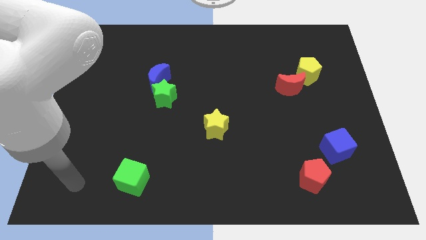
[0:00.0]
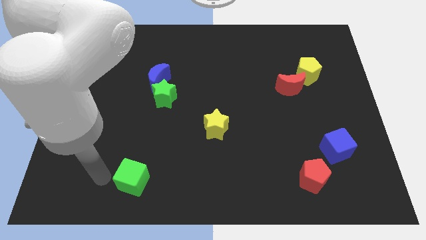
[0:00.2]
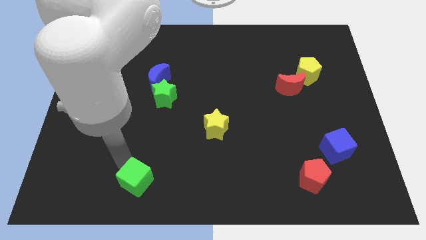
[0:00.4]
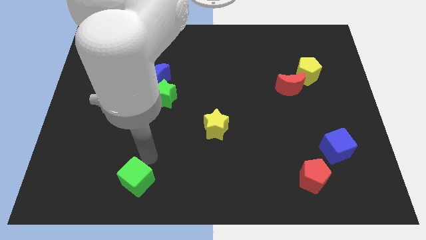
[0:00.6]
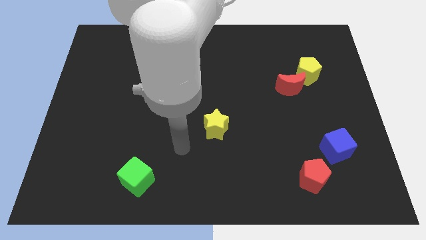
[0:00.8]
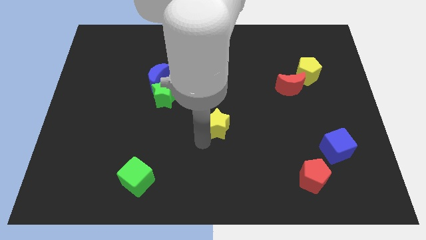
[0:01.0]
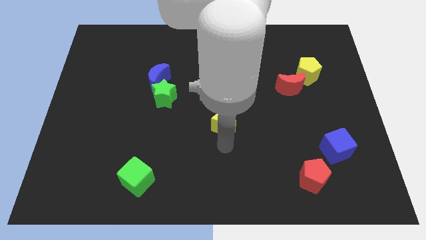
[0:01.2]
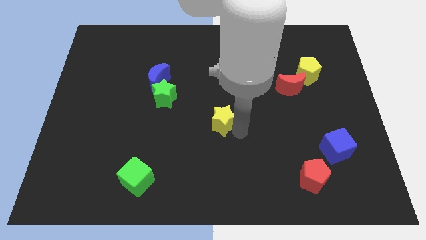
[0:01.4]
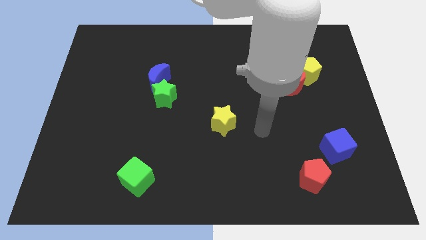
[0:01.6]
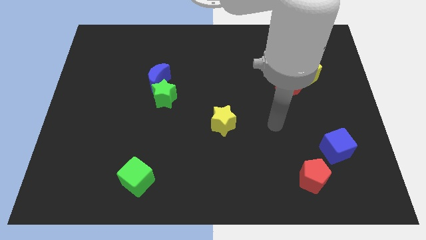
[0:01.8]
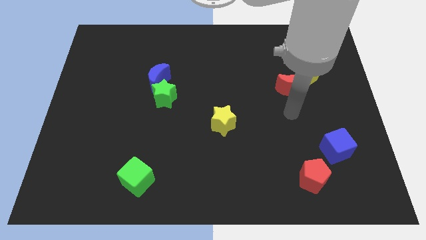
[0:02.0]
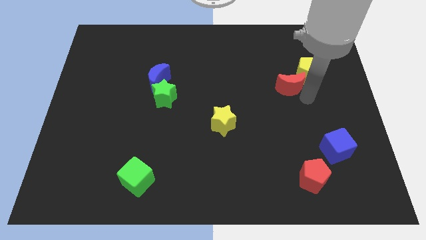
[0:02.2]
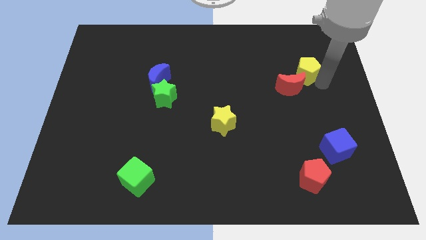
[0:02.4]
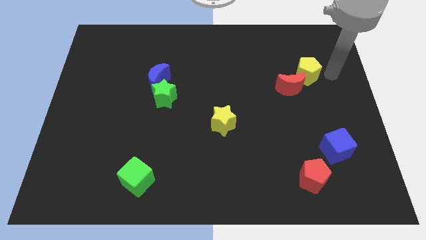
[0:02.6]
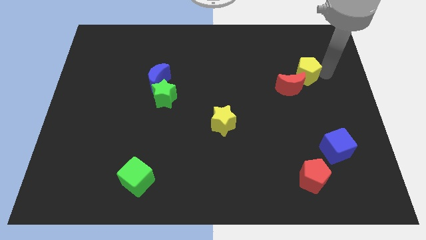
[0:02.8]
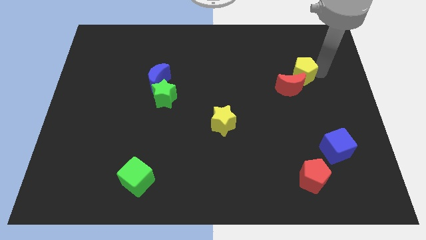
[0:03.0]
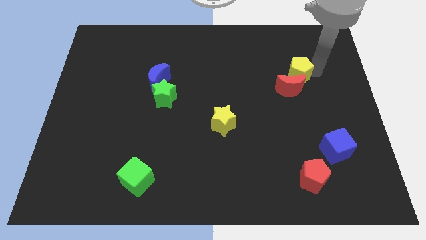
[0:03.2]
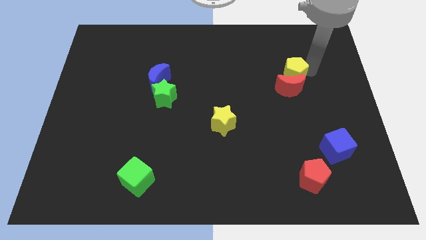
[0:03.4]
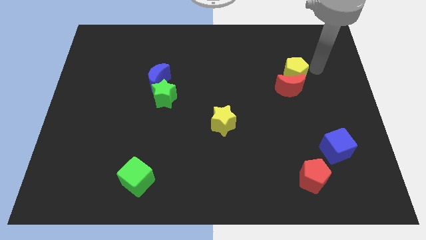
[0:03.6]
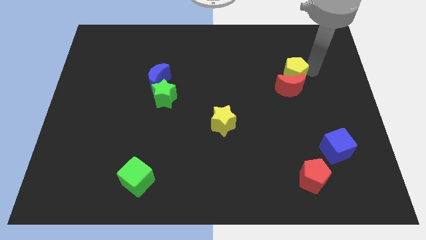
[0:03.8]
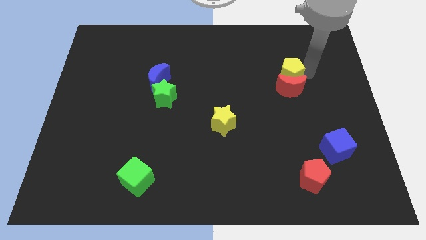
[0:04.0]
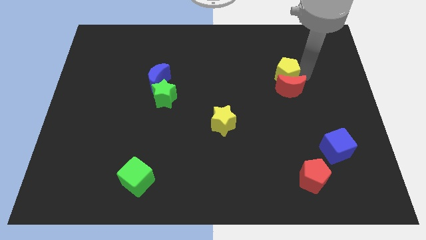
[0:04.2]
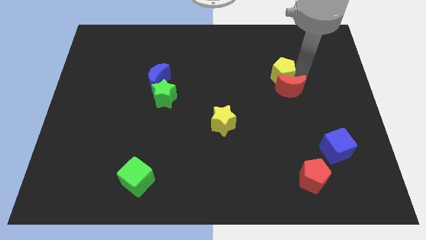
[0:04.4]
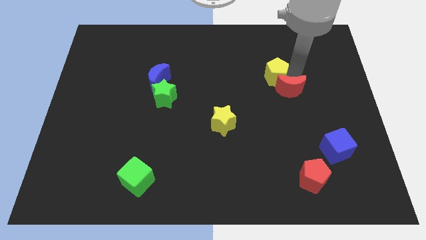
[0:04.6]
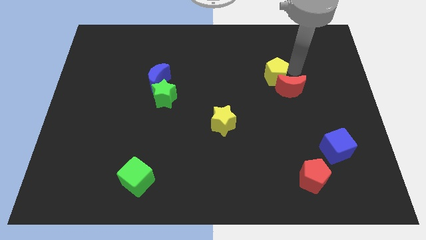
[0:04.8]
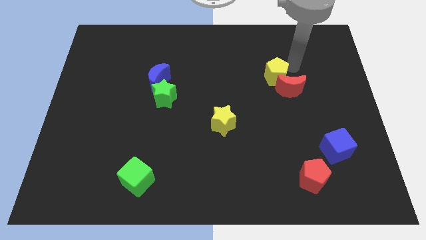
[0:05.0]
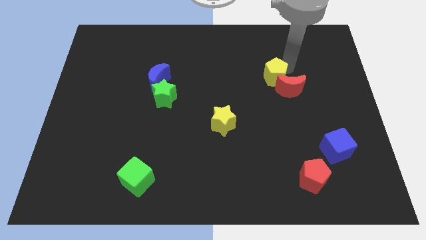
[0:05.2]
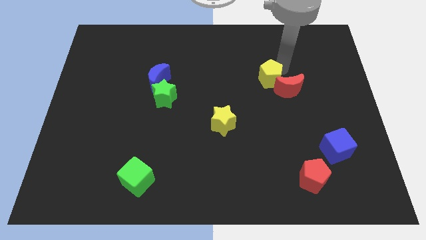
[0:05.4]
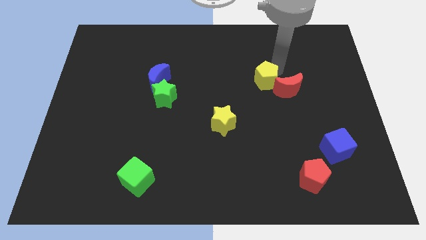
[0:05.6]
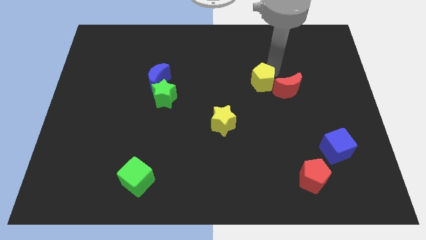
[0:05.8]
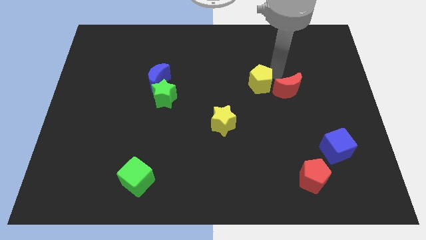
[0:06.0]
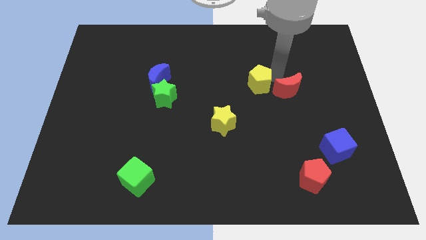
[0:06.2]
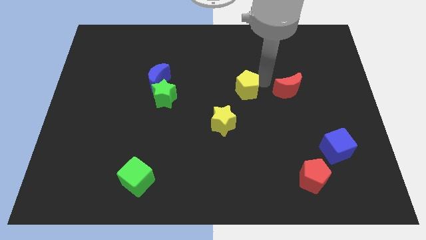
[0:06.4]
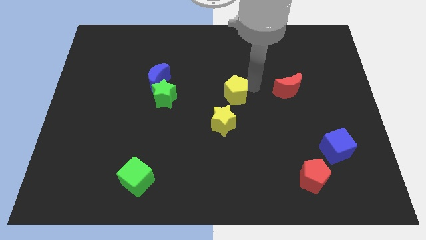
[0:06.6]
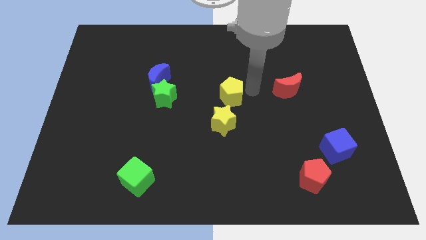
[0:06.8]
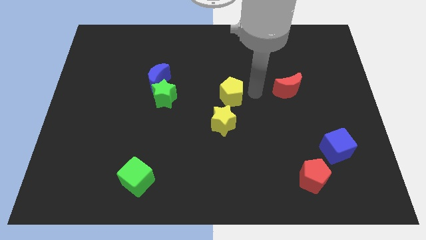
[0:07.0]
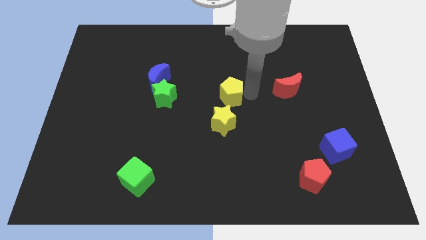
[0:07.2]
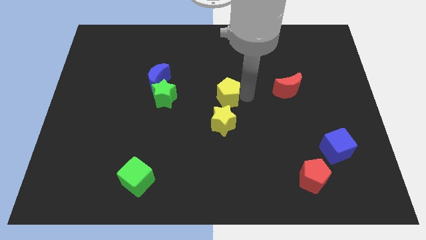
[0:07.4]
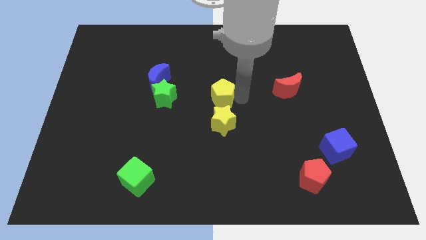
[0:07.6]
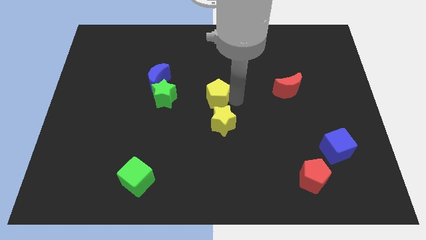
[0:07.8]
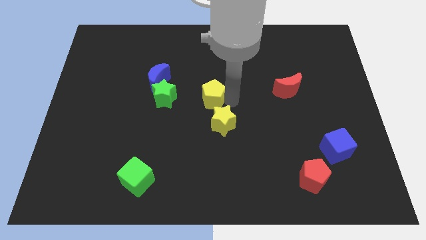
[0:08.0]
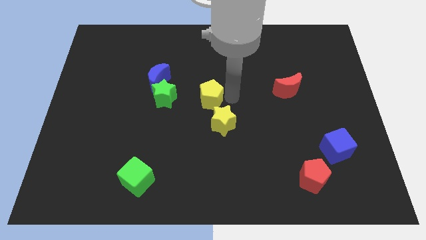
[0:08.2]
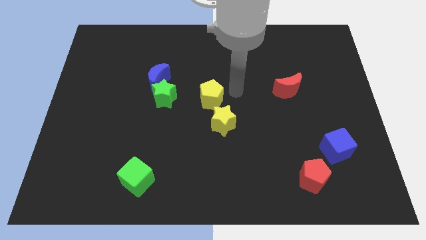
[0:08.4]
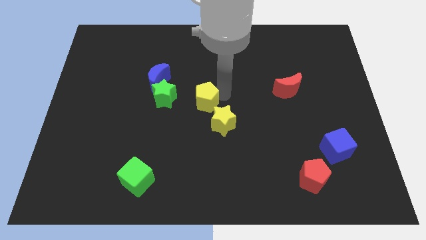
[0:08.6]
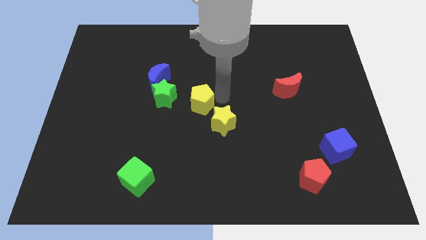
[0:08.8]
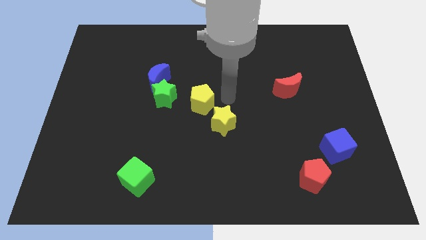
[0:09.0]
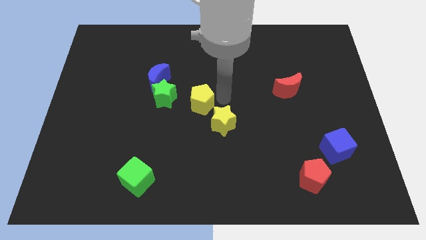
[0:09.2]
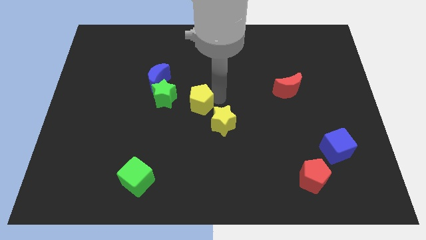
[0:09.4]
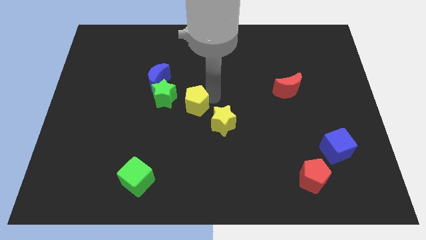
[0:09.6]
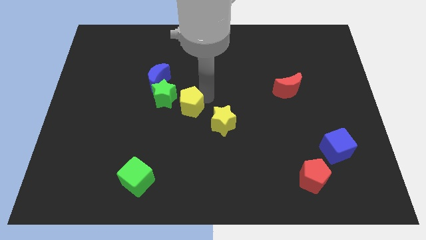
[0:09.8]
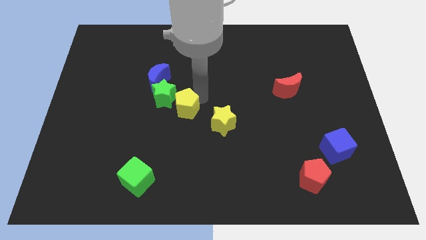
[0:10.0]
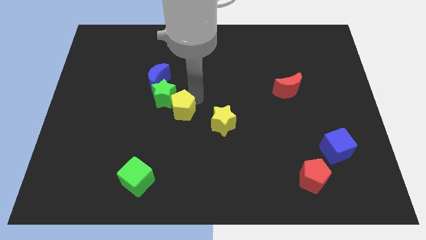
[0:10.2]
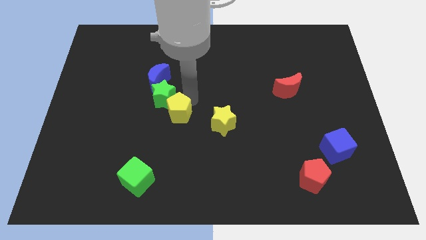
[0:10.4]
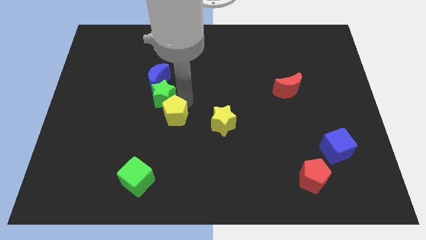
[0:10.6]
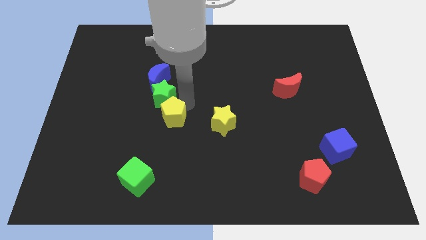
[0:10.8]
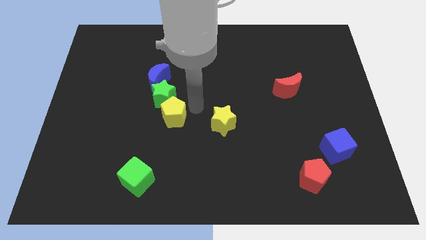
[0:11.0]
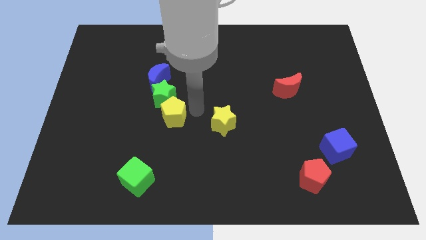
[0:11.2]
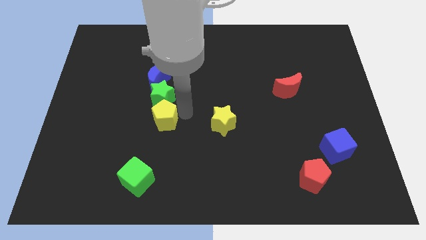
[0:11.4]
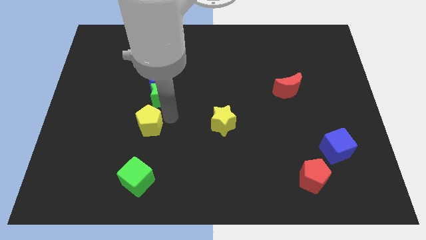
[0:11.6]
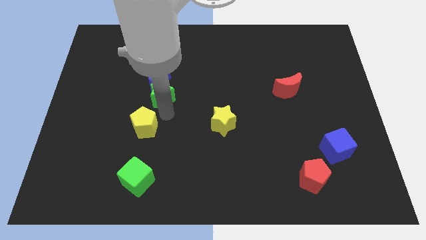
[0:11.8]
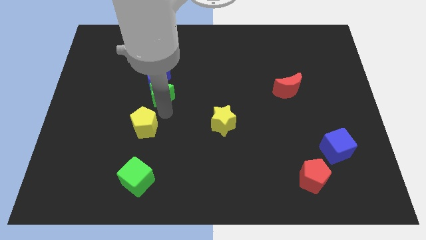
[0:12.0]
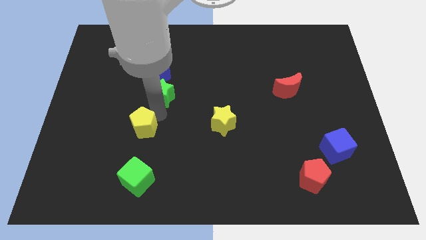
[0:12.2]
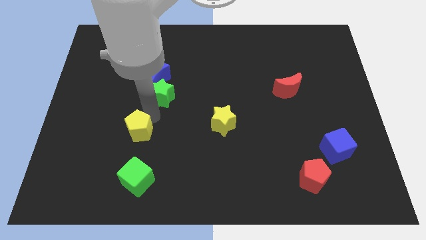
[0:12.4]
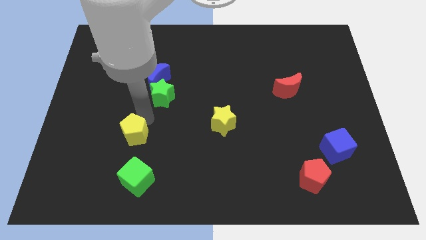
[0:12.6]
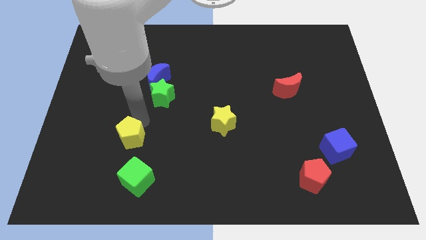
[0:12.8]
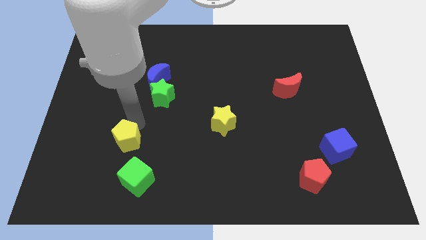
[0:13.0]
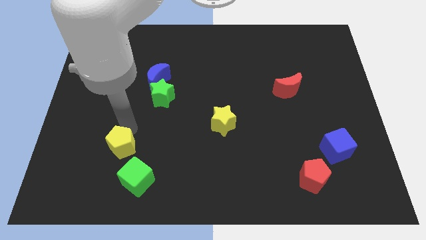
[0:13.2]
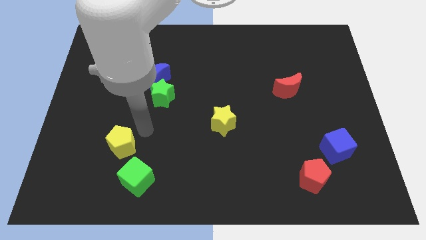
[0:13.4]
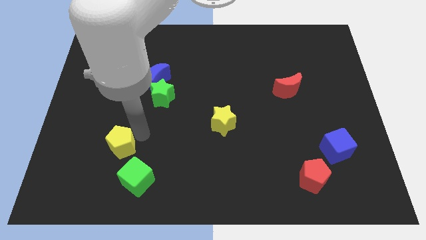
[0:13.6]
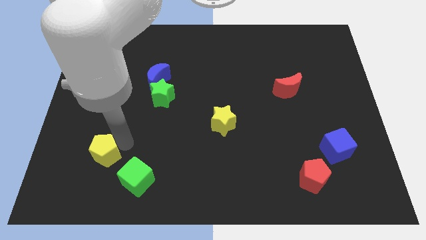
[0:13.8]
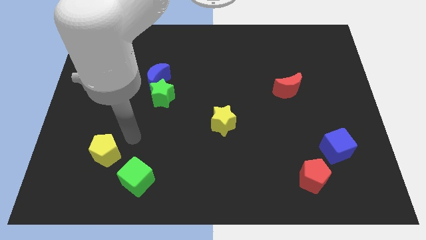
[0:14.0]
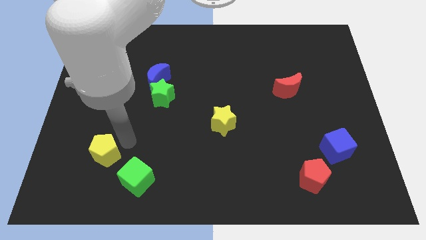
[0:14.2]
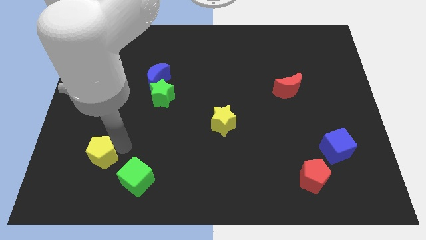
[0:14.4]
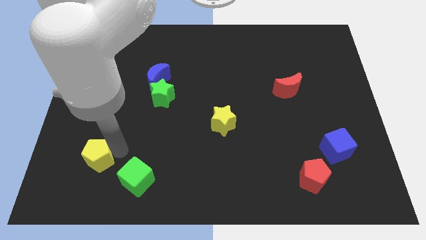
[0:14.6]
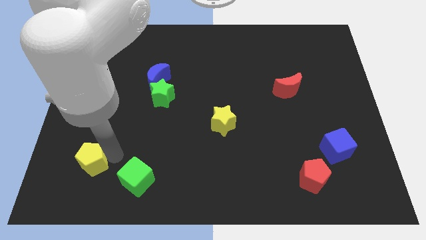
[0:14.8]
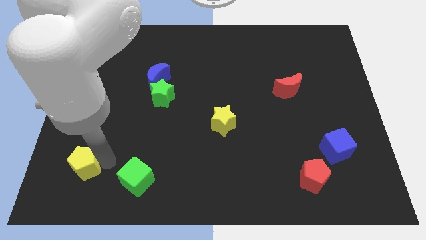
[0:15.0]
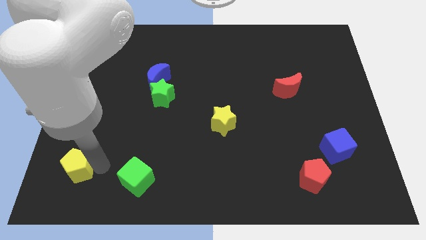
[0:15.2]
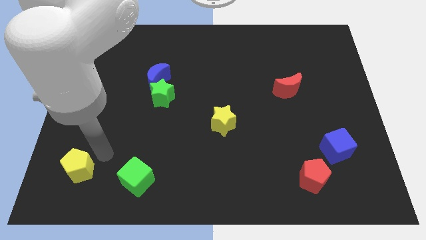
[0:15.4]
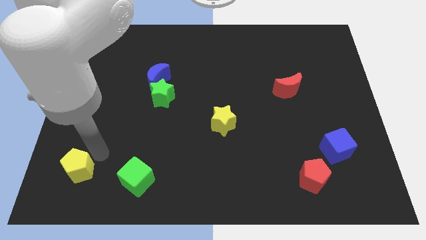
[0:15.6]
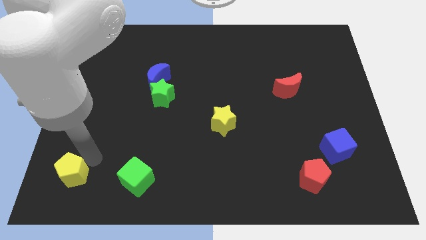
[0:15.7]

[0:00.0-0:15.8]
move the yellow pentagon to the bottom left
